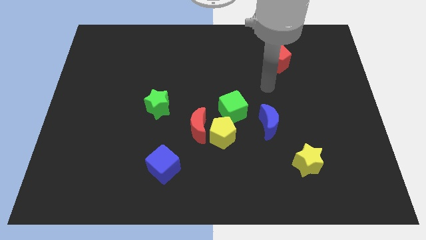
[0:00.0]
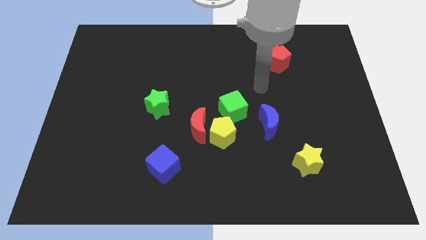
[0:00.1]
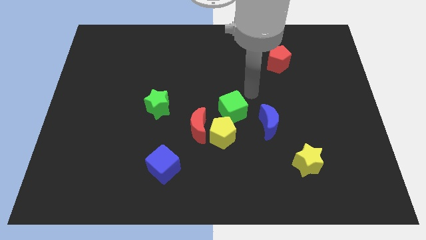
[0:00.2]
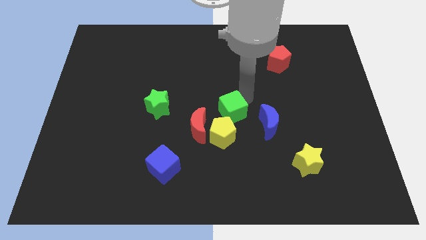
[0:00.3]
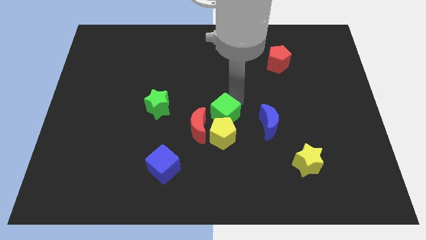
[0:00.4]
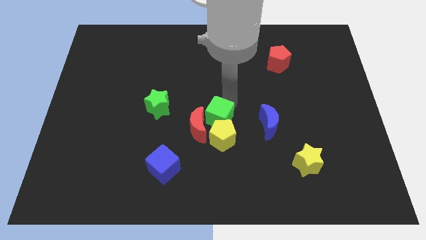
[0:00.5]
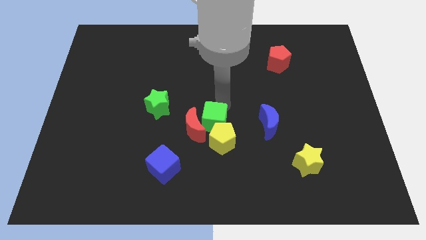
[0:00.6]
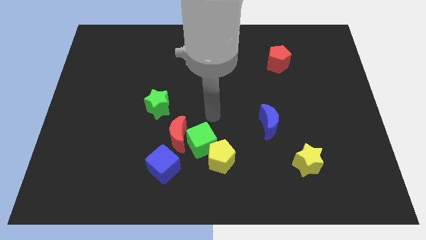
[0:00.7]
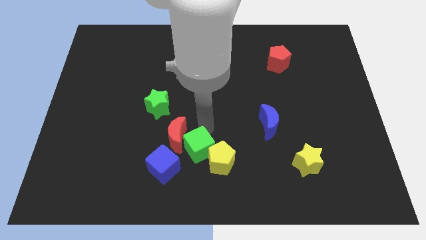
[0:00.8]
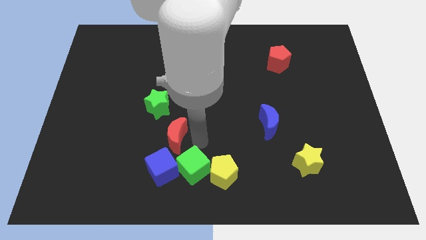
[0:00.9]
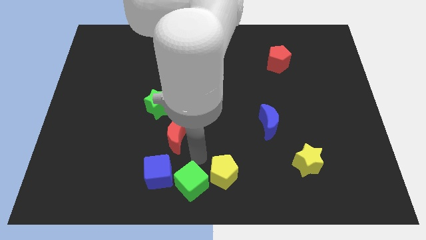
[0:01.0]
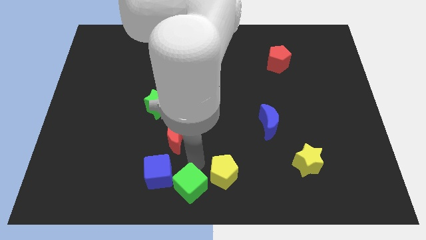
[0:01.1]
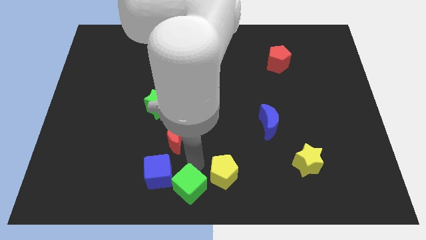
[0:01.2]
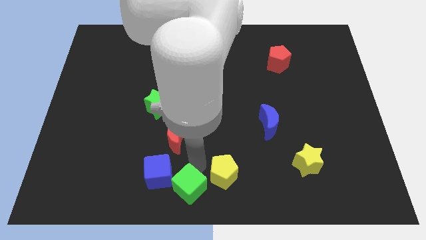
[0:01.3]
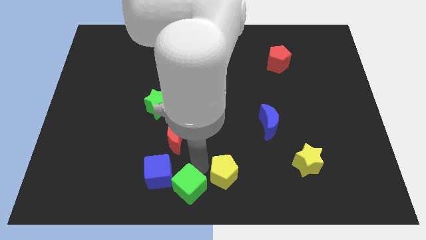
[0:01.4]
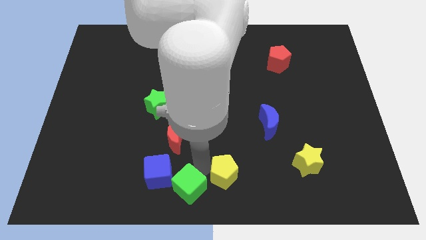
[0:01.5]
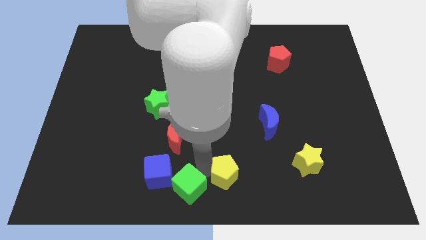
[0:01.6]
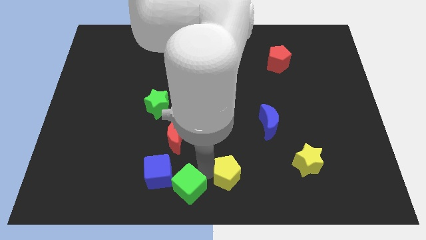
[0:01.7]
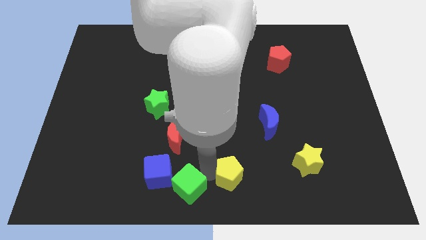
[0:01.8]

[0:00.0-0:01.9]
pull the yellow pentagon apart from the red moon and green cube

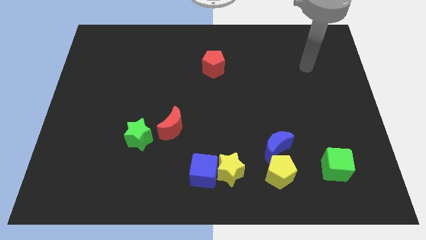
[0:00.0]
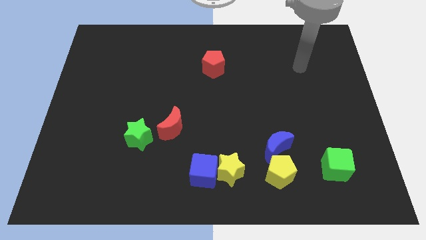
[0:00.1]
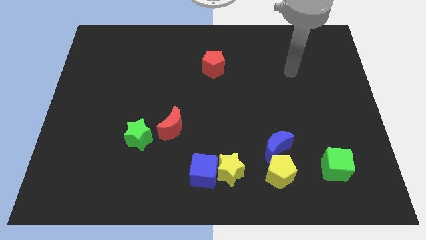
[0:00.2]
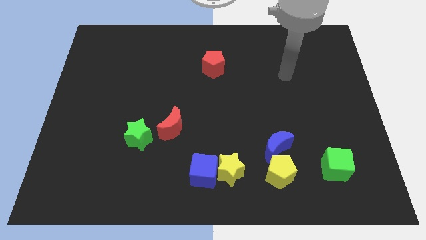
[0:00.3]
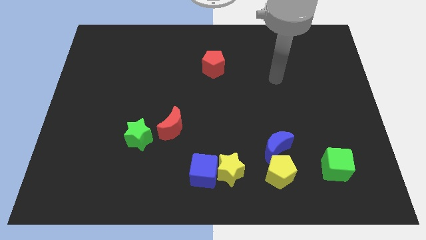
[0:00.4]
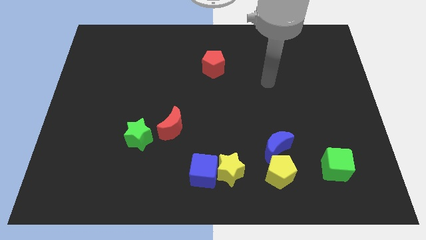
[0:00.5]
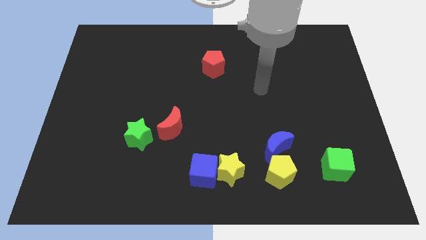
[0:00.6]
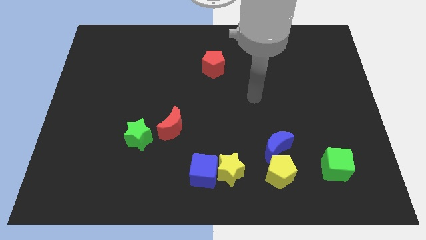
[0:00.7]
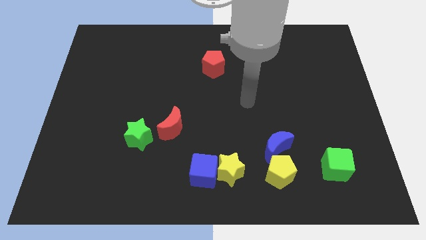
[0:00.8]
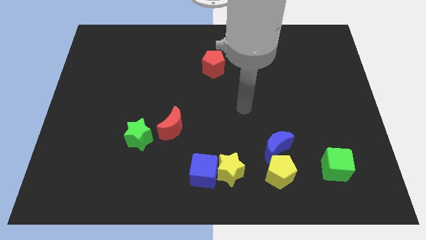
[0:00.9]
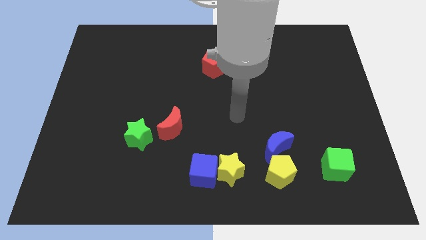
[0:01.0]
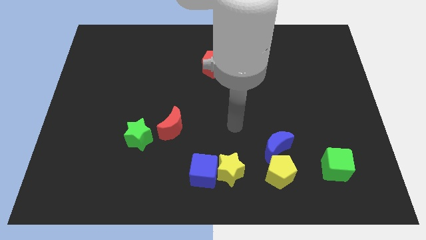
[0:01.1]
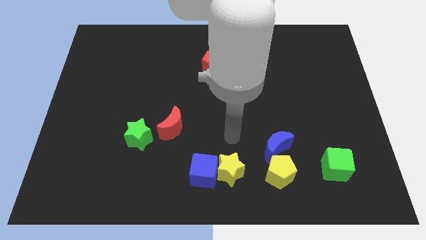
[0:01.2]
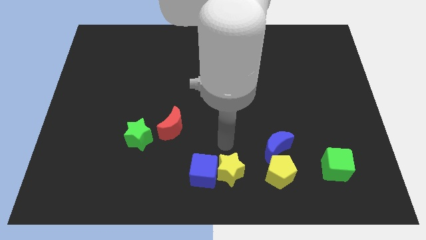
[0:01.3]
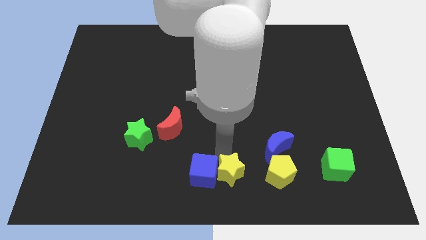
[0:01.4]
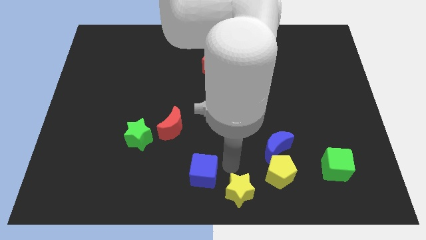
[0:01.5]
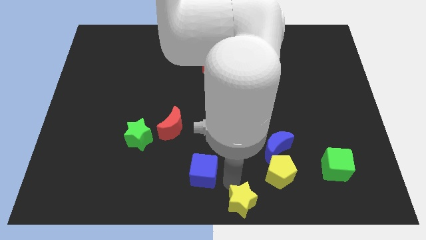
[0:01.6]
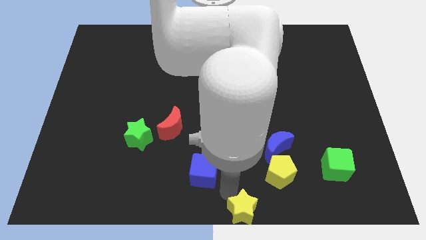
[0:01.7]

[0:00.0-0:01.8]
separate the blue cube from the yellow star

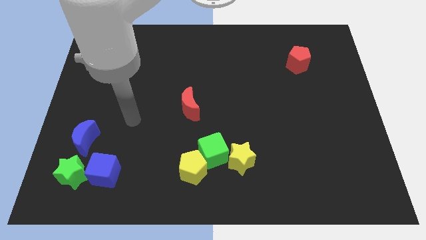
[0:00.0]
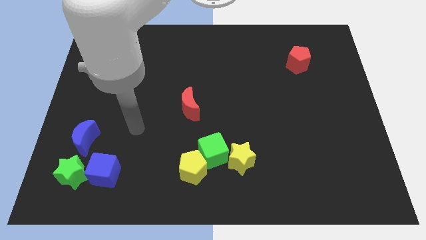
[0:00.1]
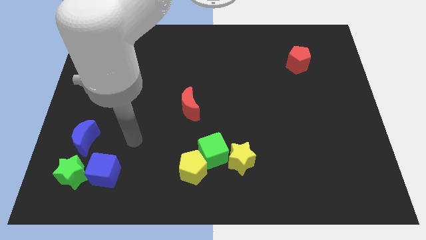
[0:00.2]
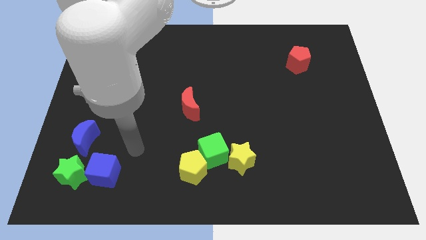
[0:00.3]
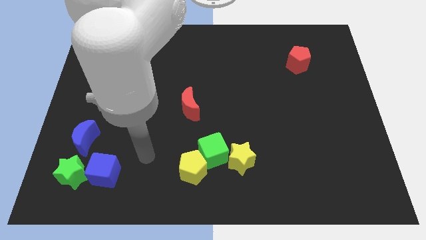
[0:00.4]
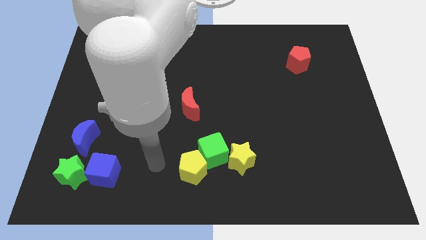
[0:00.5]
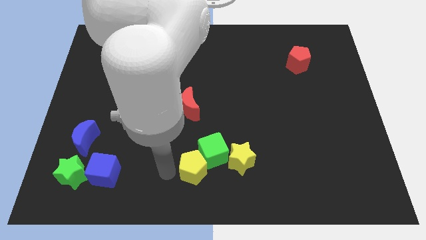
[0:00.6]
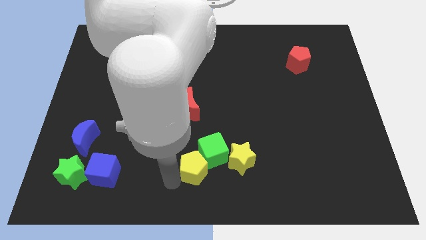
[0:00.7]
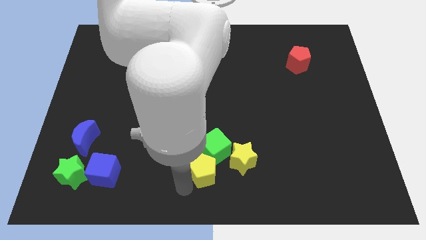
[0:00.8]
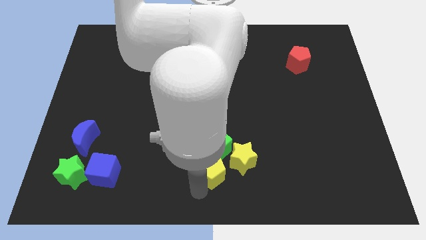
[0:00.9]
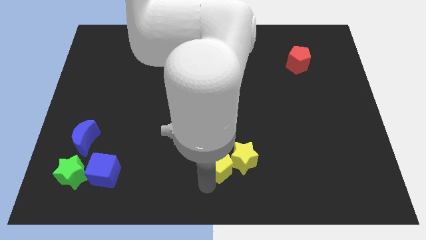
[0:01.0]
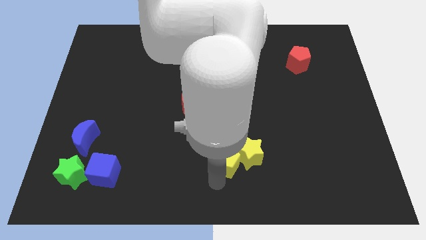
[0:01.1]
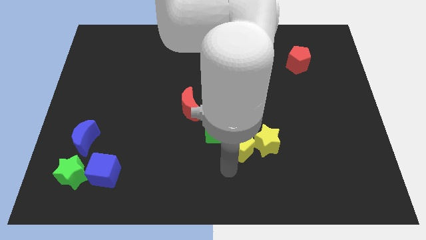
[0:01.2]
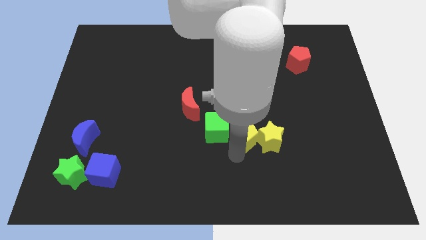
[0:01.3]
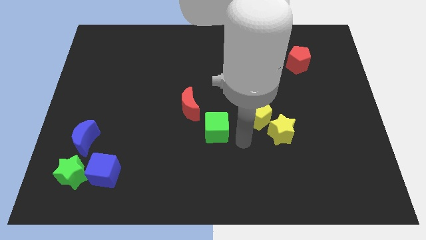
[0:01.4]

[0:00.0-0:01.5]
pull the green cube apart from the yellow pentagon and yellow star

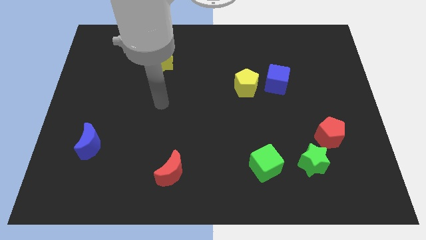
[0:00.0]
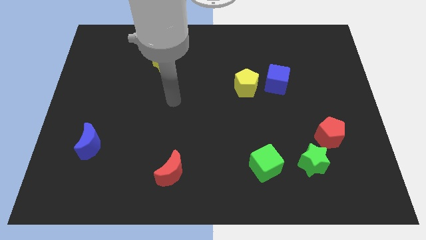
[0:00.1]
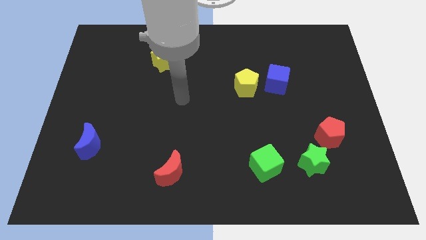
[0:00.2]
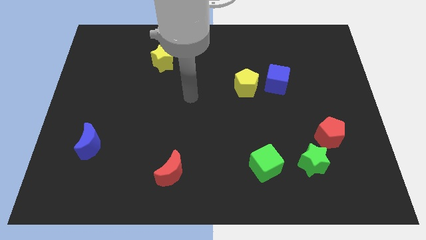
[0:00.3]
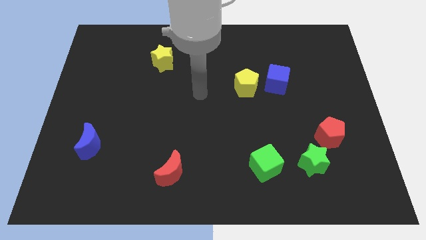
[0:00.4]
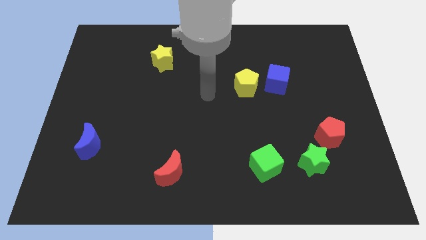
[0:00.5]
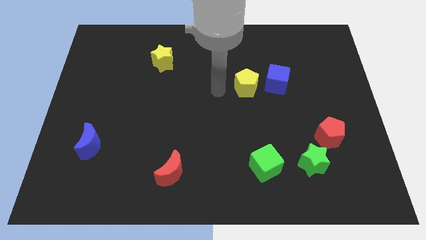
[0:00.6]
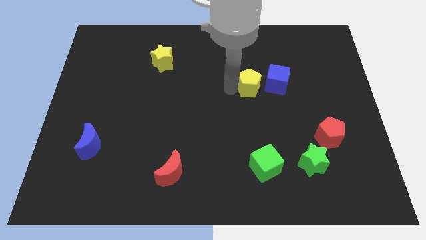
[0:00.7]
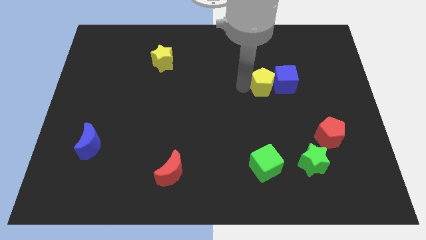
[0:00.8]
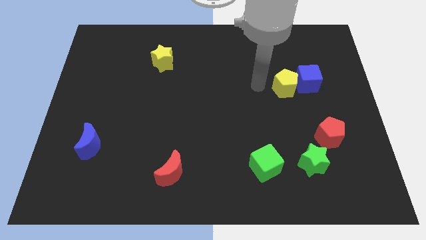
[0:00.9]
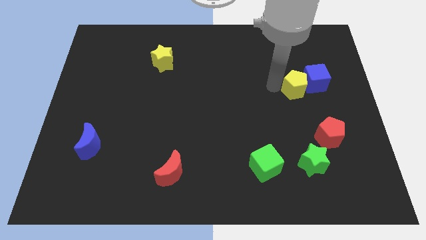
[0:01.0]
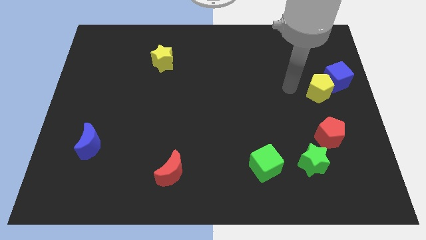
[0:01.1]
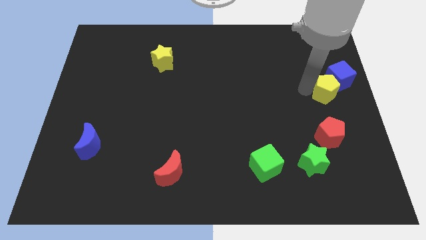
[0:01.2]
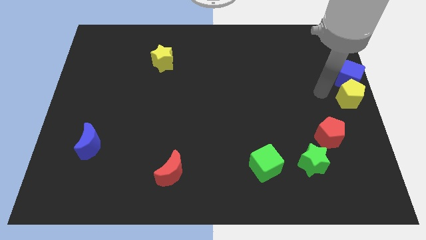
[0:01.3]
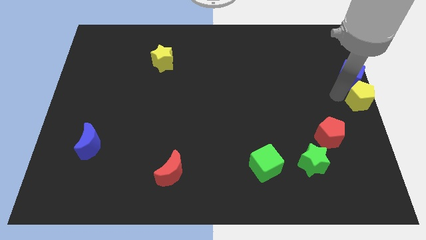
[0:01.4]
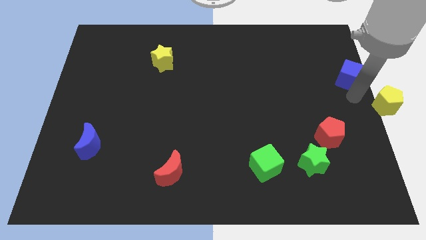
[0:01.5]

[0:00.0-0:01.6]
move the blue cube away from the yellow pentagon

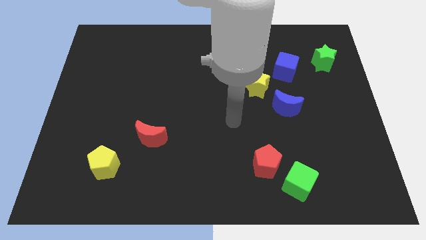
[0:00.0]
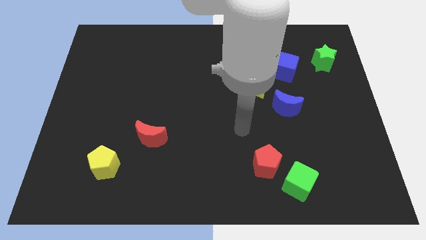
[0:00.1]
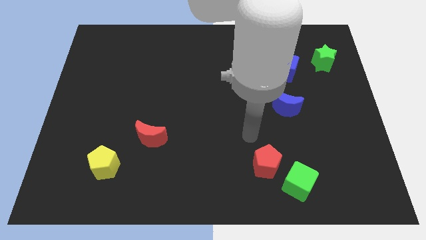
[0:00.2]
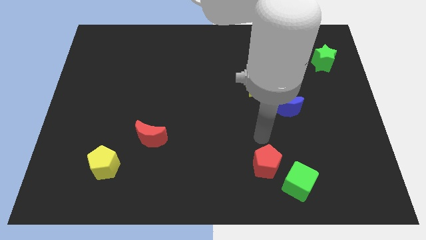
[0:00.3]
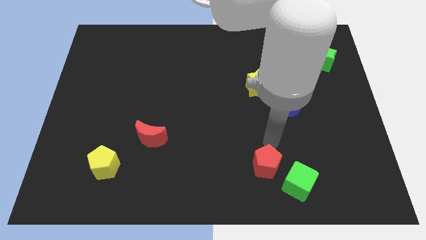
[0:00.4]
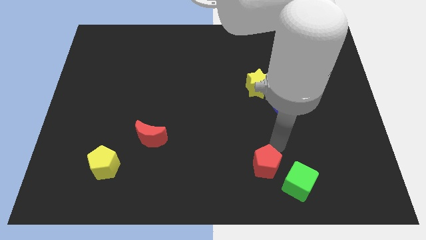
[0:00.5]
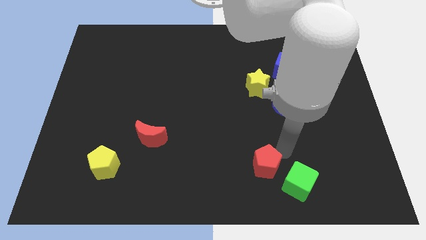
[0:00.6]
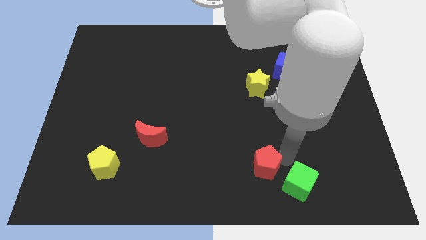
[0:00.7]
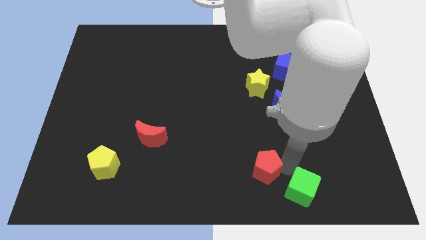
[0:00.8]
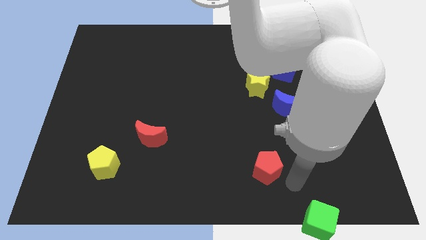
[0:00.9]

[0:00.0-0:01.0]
move the red pentagon away from the green cube

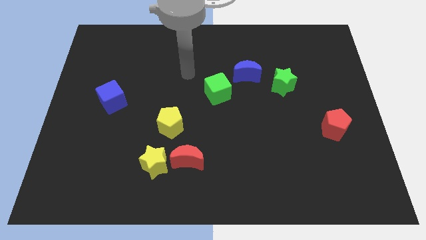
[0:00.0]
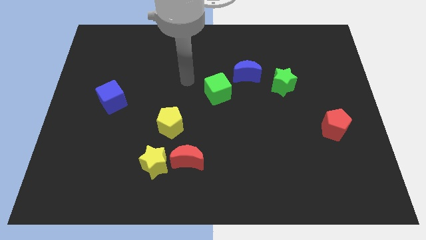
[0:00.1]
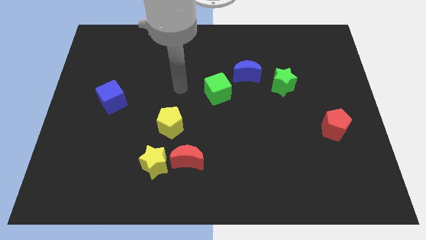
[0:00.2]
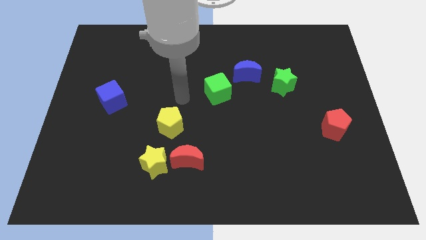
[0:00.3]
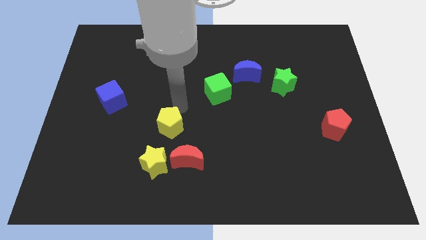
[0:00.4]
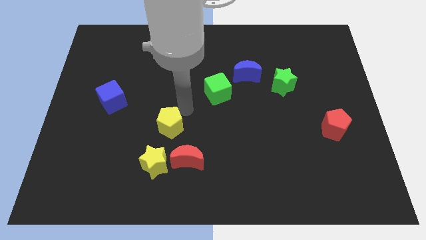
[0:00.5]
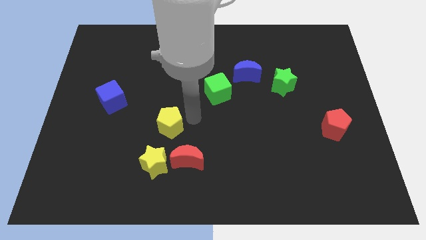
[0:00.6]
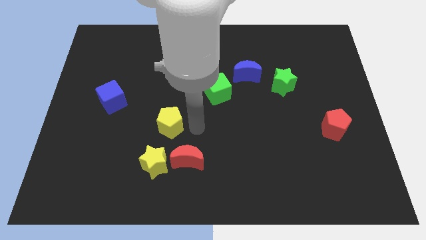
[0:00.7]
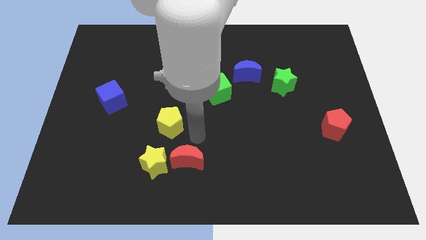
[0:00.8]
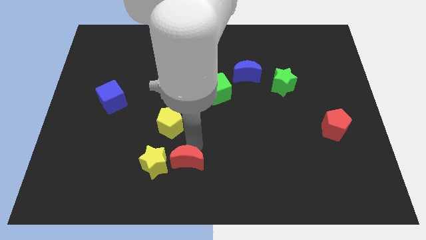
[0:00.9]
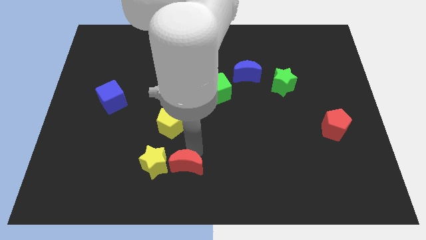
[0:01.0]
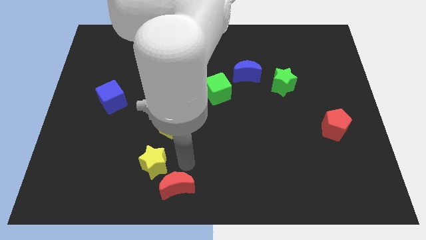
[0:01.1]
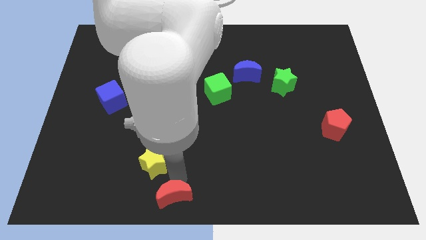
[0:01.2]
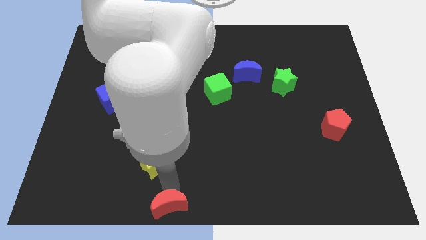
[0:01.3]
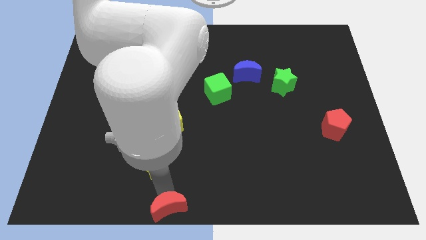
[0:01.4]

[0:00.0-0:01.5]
move the yellow star away from the red moon
